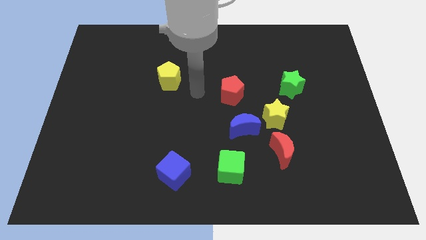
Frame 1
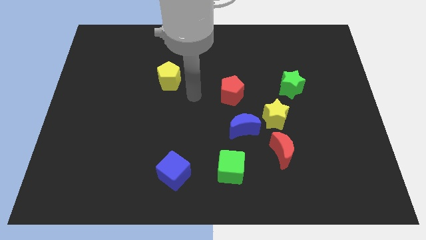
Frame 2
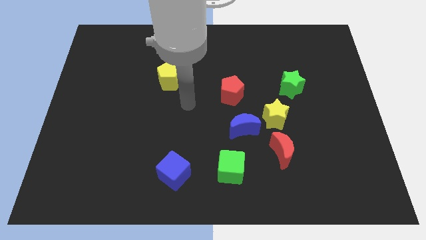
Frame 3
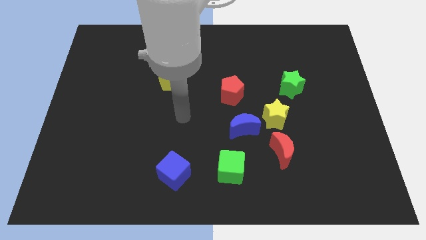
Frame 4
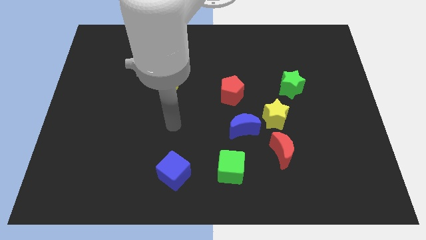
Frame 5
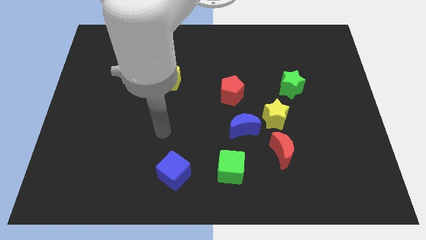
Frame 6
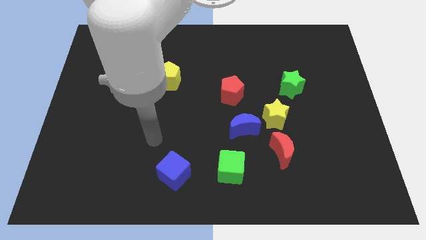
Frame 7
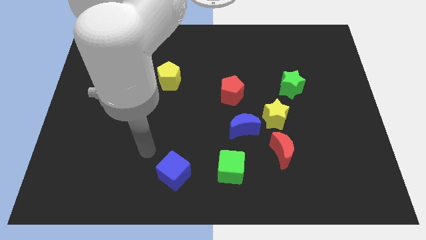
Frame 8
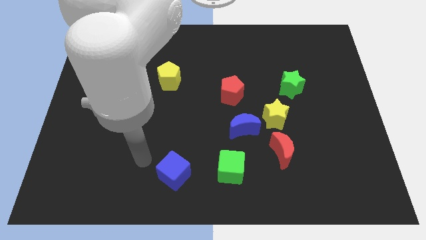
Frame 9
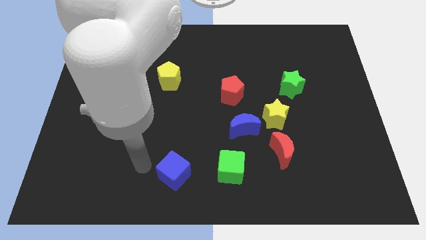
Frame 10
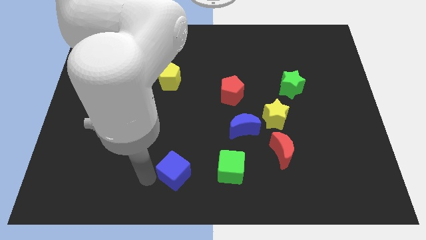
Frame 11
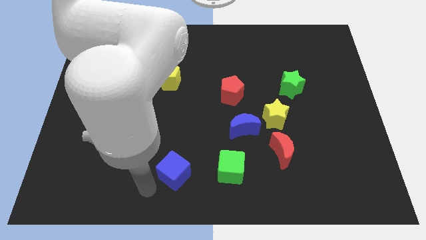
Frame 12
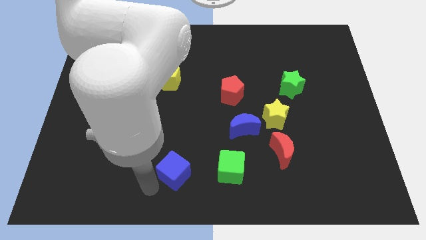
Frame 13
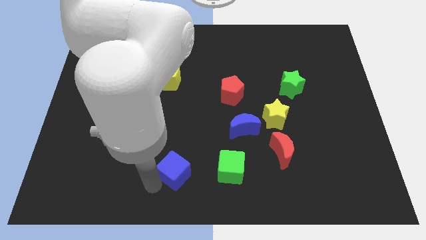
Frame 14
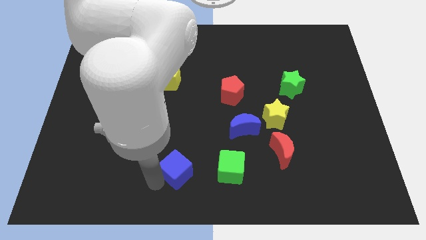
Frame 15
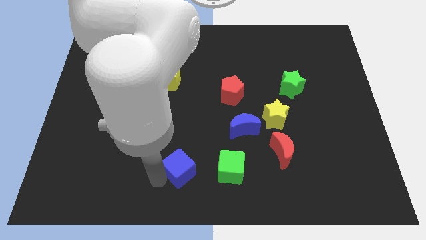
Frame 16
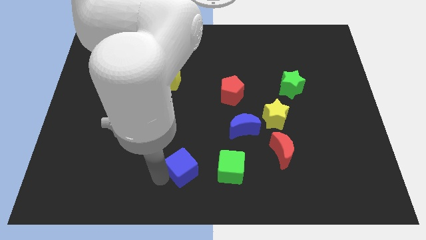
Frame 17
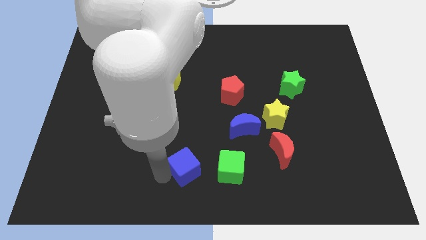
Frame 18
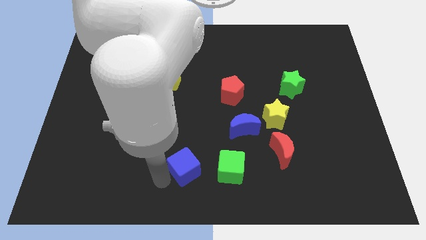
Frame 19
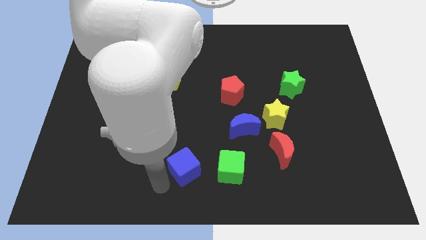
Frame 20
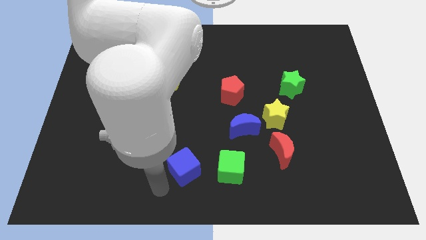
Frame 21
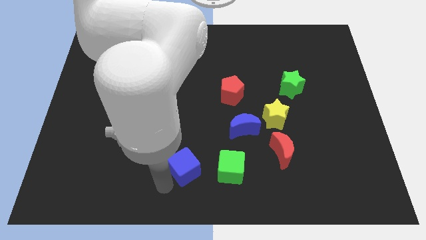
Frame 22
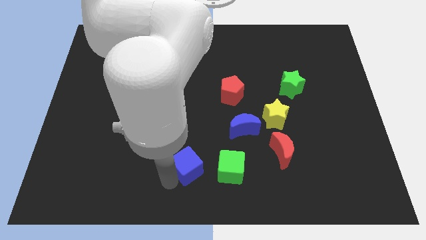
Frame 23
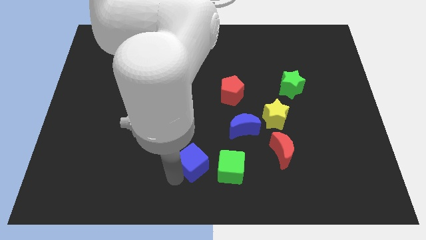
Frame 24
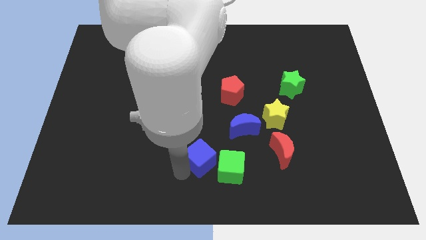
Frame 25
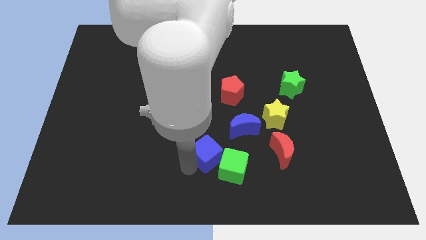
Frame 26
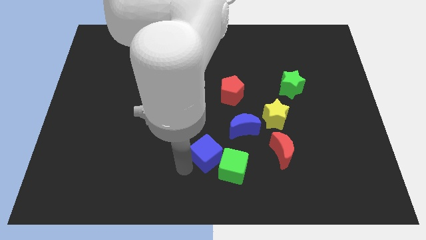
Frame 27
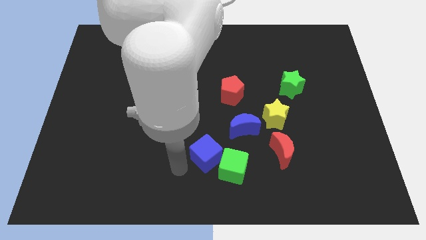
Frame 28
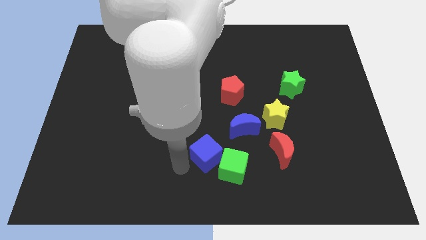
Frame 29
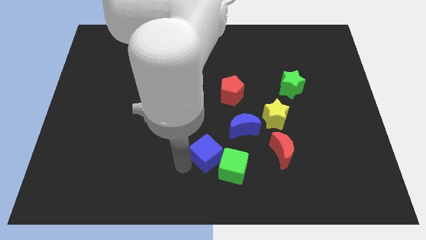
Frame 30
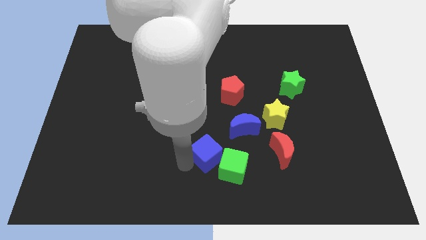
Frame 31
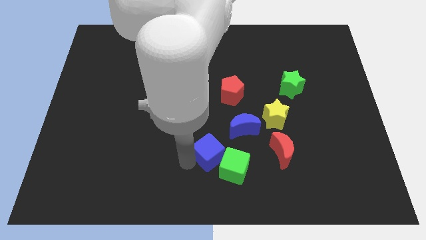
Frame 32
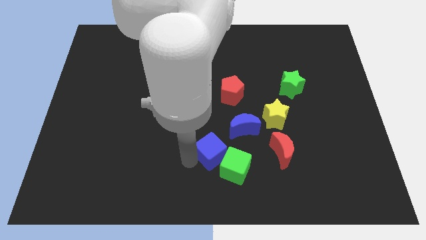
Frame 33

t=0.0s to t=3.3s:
slightly slide the blue cube to the right

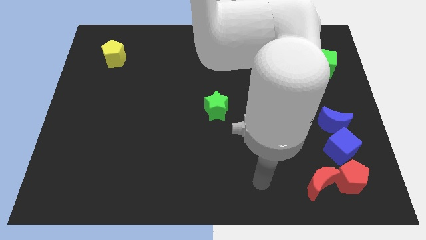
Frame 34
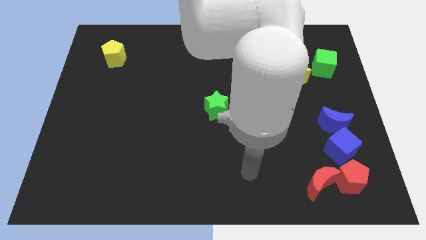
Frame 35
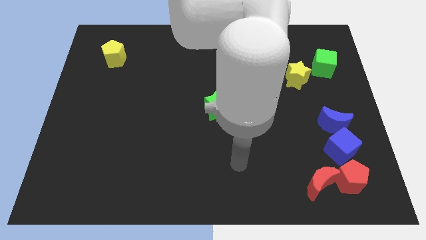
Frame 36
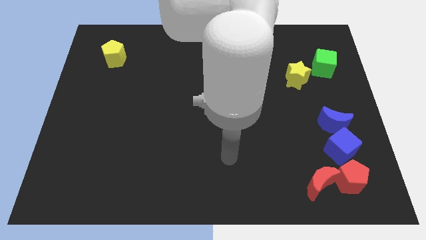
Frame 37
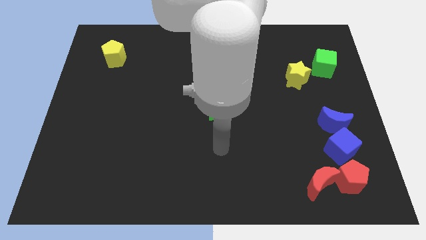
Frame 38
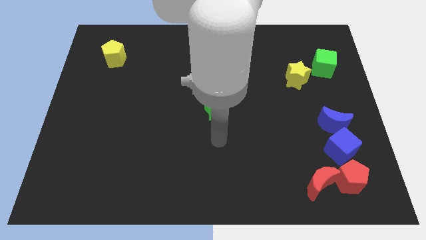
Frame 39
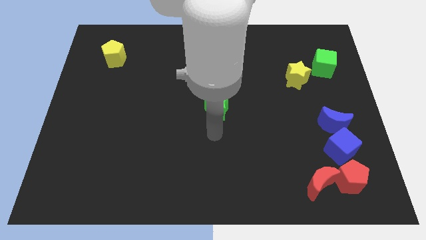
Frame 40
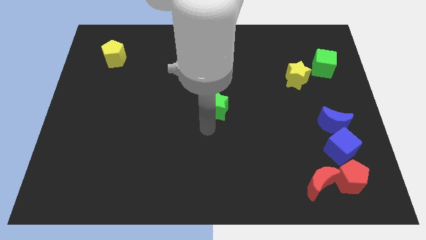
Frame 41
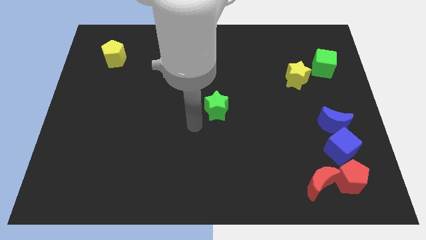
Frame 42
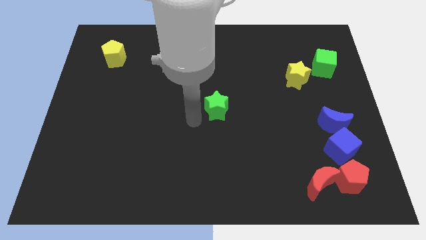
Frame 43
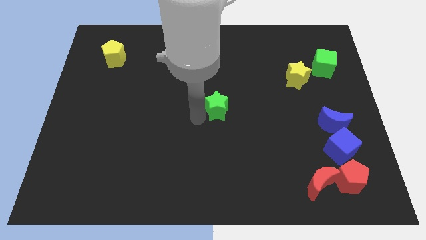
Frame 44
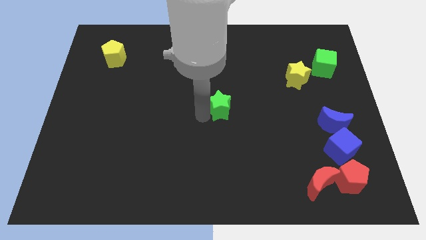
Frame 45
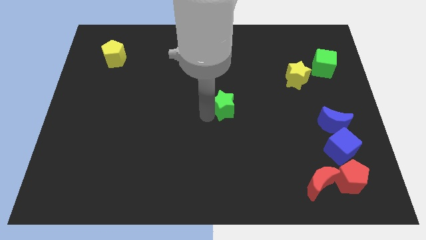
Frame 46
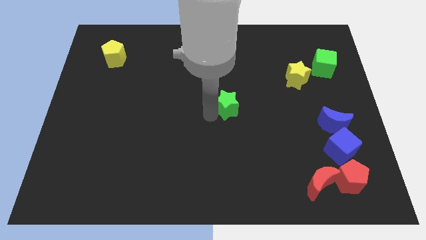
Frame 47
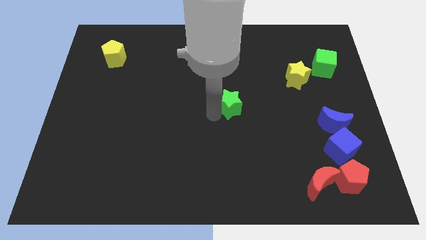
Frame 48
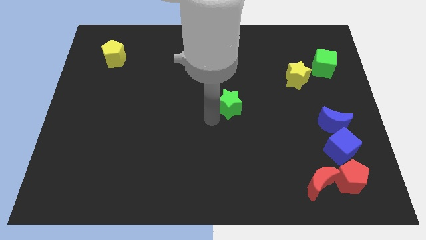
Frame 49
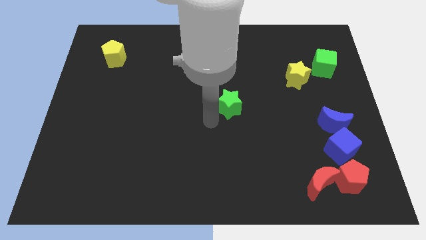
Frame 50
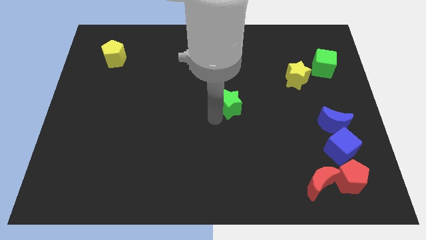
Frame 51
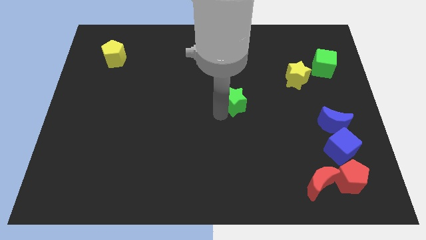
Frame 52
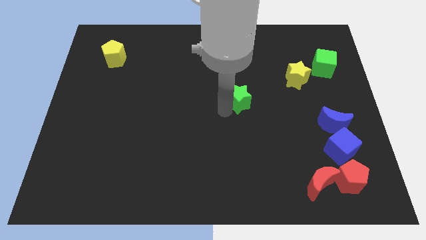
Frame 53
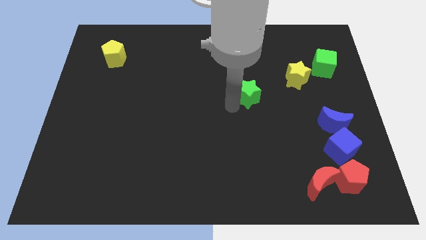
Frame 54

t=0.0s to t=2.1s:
slide the green star diagonally up and to the right a little

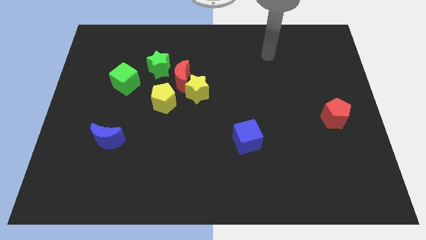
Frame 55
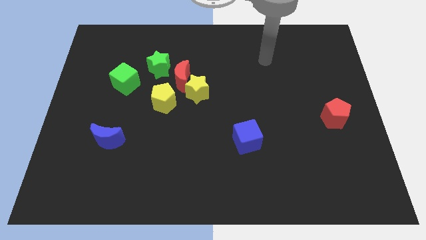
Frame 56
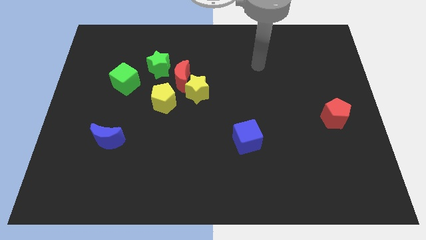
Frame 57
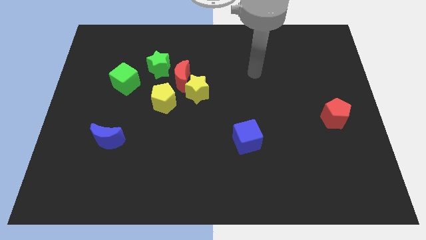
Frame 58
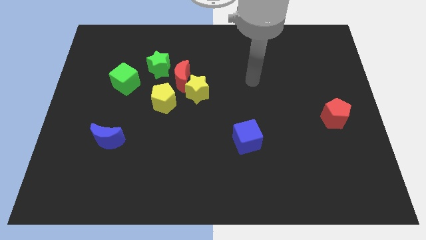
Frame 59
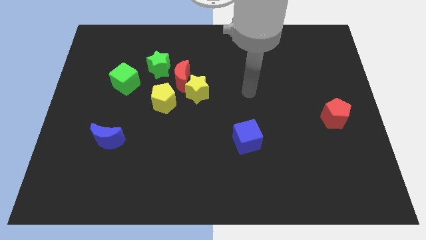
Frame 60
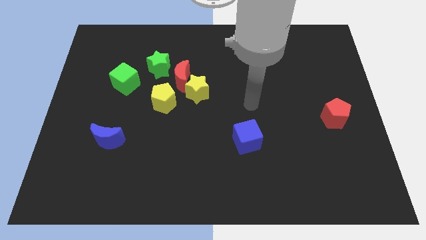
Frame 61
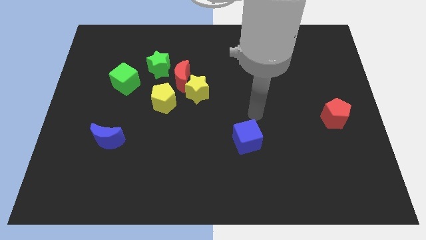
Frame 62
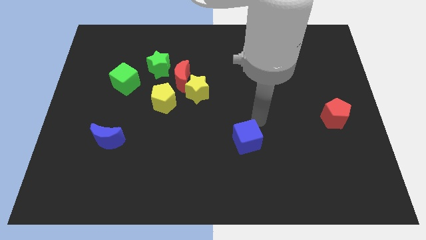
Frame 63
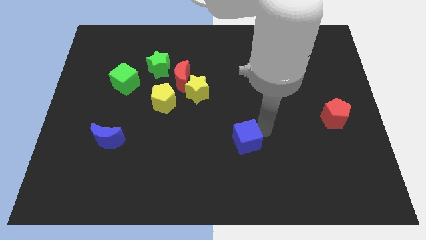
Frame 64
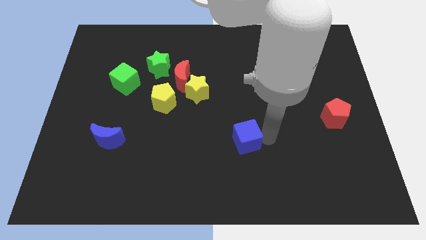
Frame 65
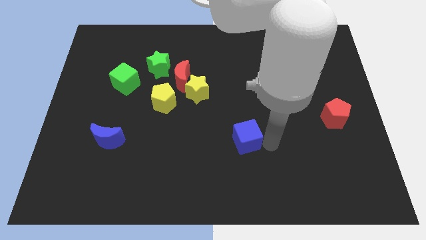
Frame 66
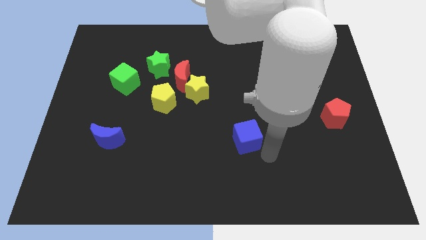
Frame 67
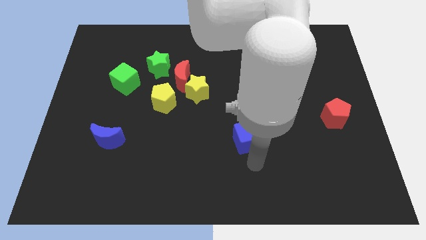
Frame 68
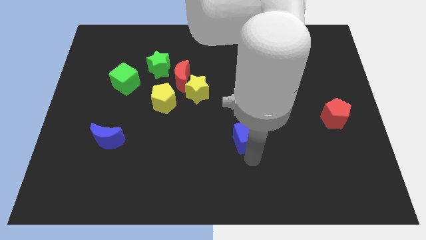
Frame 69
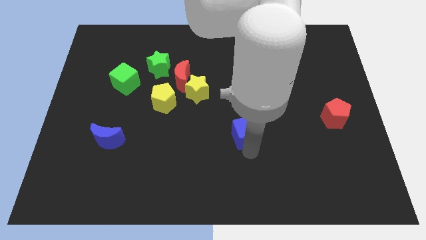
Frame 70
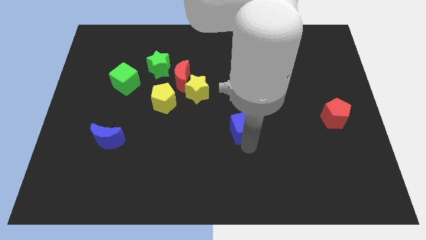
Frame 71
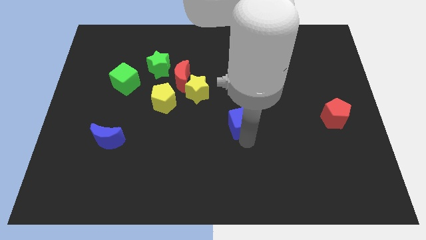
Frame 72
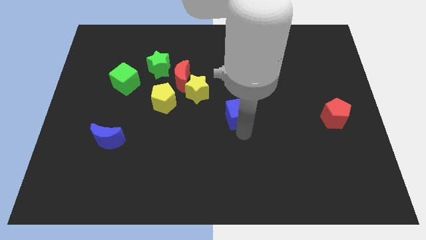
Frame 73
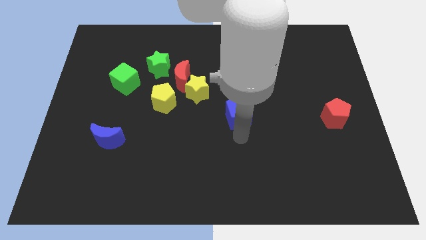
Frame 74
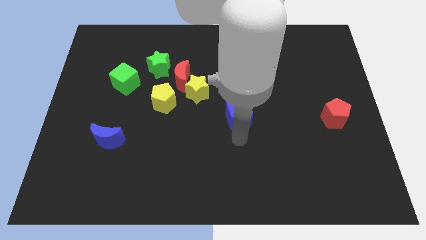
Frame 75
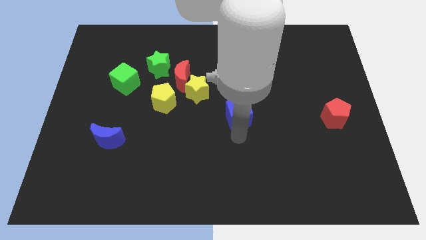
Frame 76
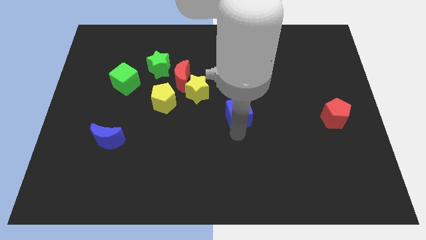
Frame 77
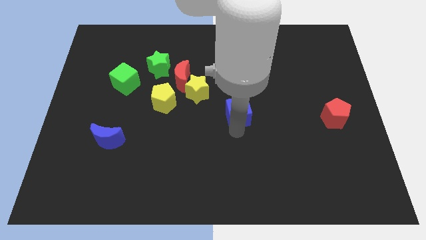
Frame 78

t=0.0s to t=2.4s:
slide the blue cube slightly upwards

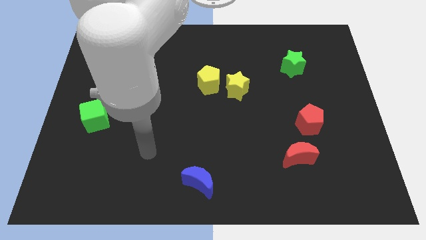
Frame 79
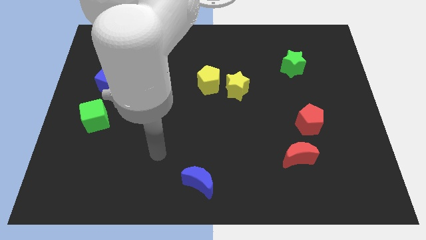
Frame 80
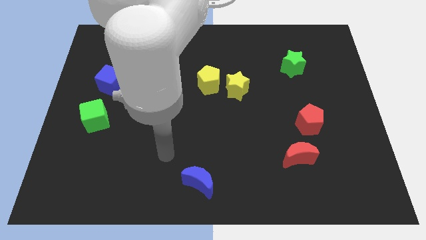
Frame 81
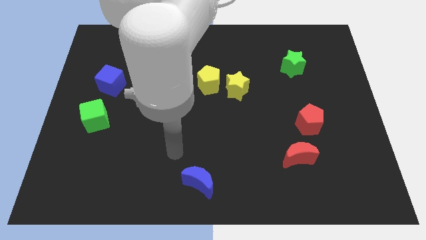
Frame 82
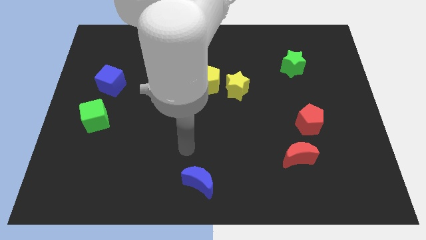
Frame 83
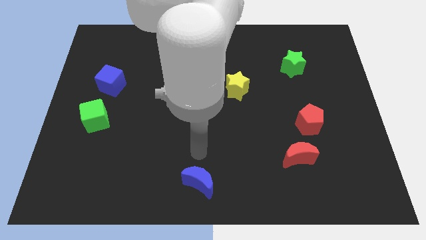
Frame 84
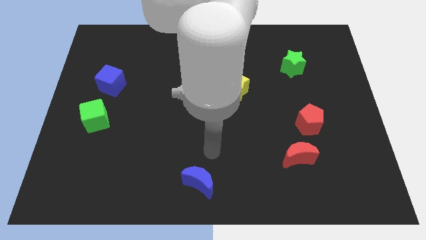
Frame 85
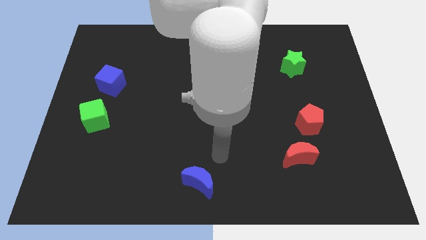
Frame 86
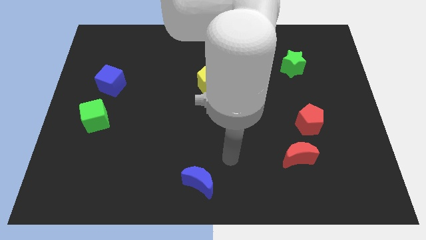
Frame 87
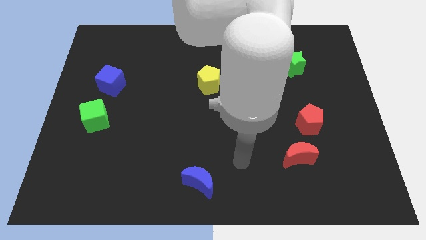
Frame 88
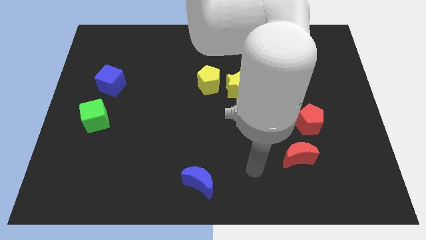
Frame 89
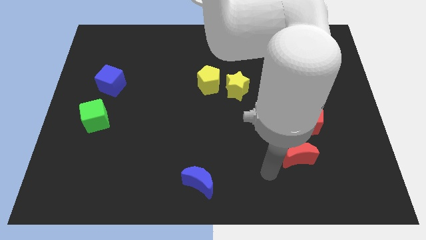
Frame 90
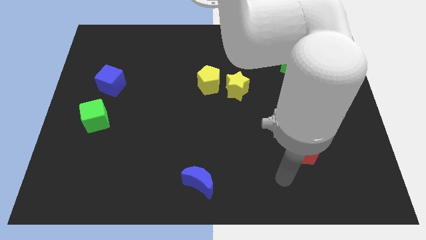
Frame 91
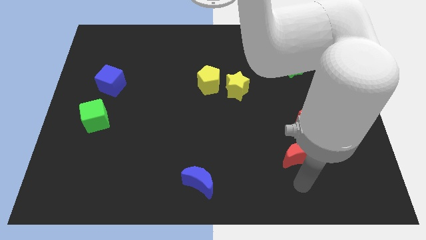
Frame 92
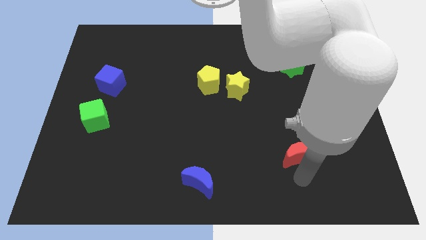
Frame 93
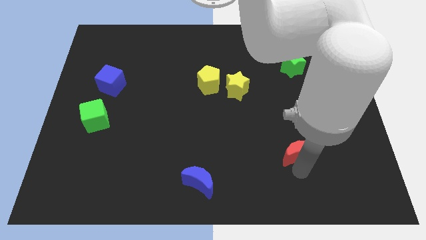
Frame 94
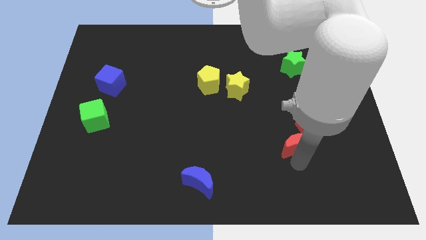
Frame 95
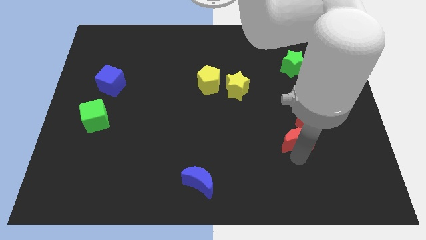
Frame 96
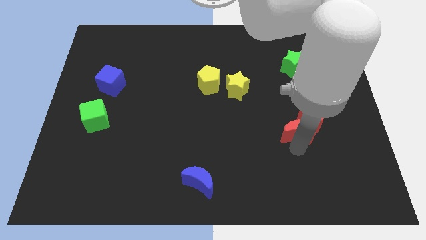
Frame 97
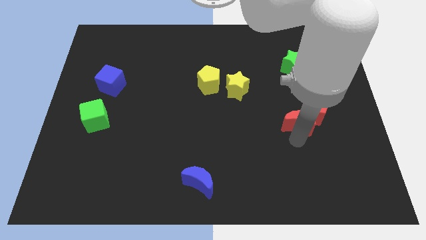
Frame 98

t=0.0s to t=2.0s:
move the red moon somewhat upwards
